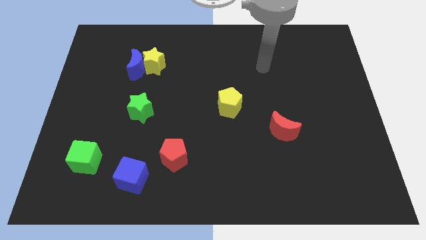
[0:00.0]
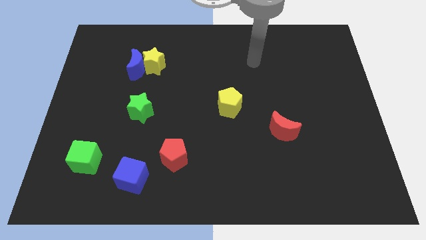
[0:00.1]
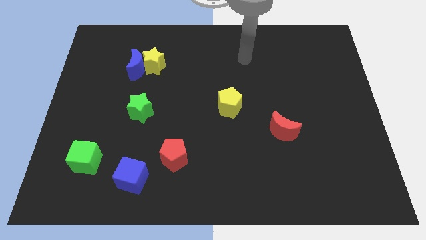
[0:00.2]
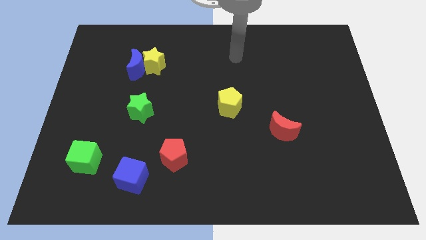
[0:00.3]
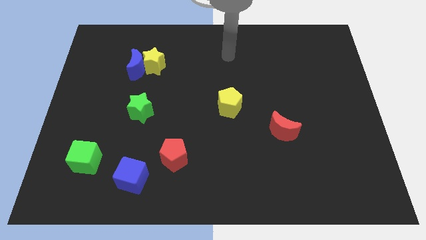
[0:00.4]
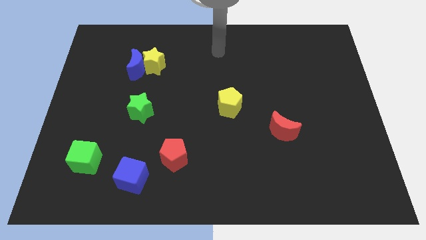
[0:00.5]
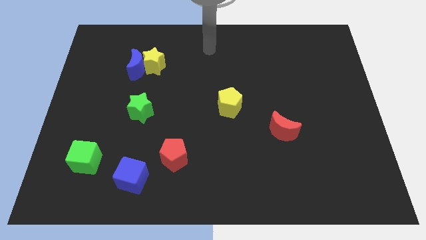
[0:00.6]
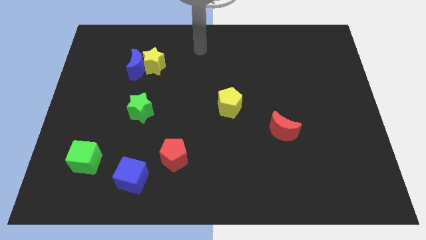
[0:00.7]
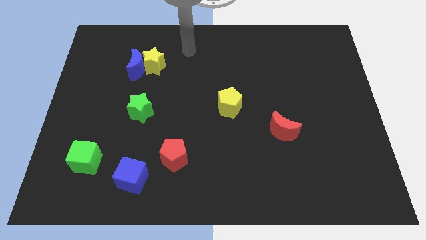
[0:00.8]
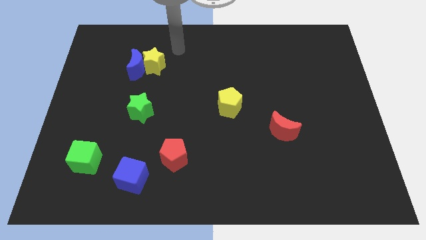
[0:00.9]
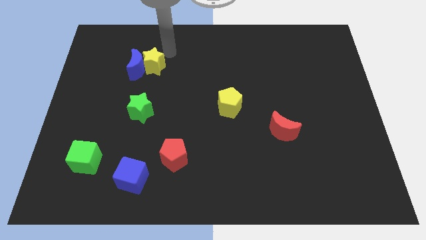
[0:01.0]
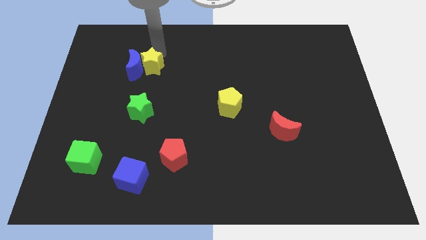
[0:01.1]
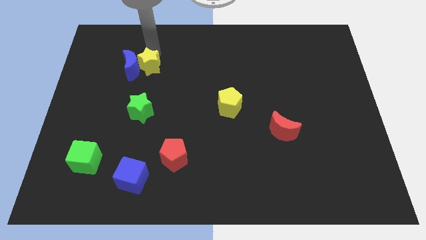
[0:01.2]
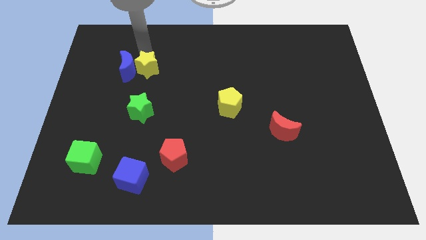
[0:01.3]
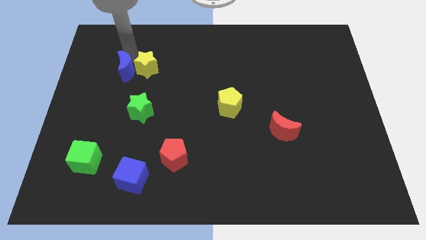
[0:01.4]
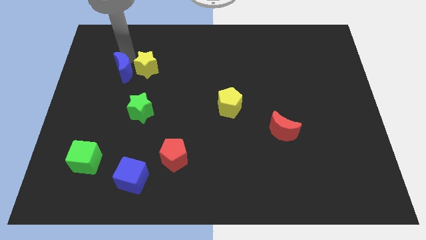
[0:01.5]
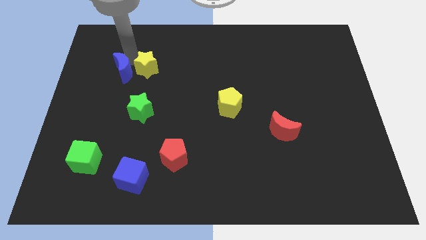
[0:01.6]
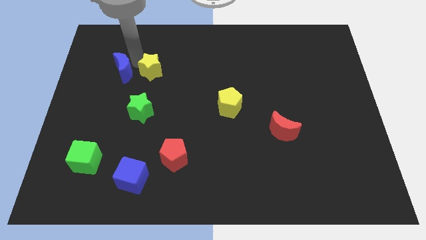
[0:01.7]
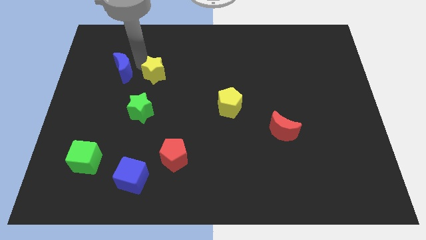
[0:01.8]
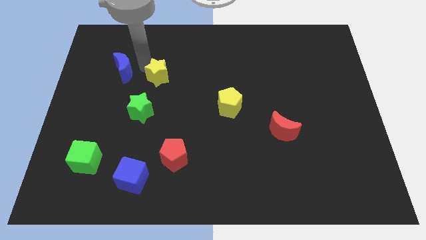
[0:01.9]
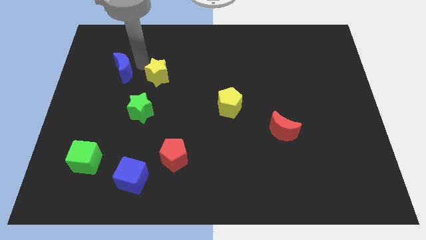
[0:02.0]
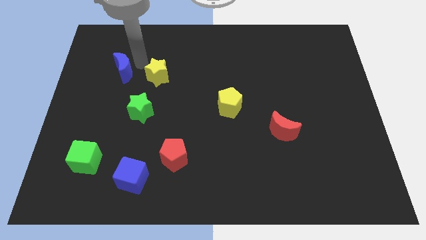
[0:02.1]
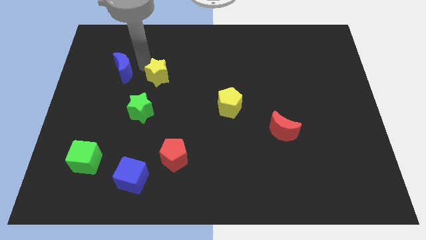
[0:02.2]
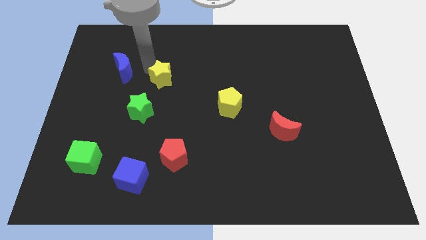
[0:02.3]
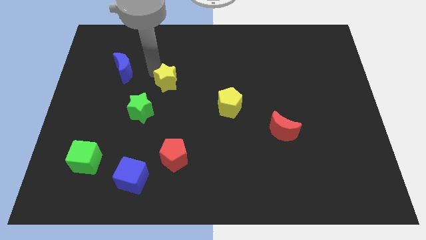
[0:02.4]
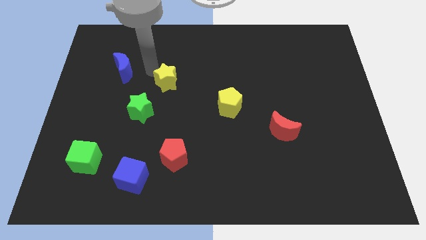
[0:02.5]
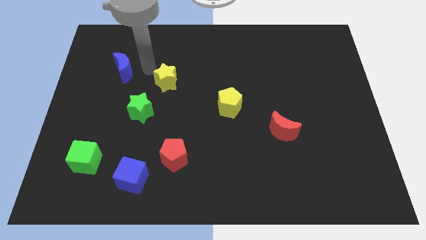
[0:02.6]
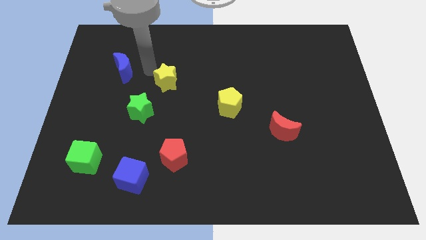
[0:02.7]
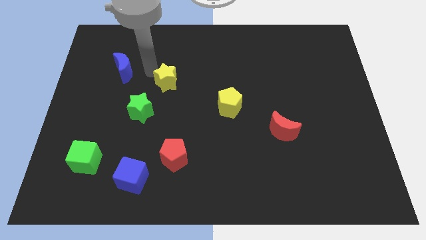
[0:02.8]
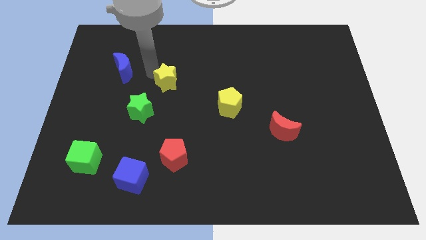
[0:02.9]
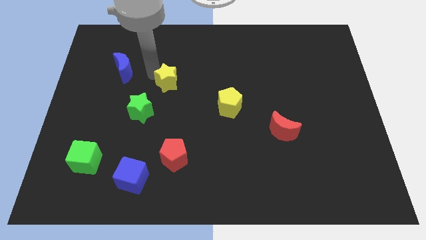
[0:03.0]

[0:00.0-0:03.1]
push the yellow star a bit down and to the right

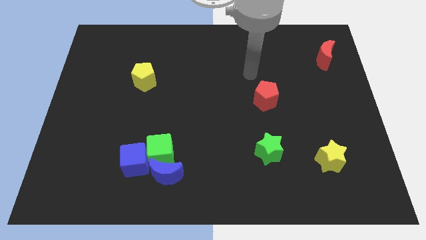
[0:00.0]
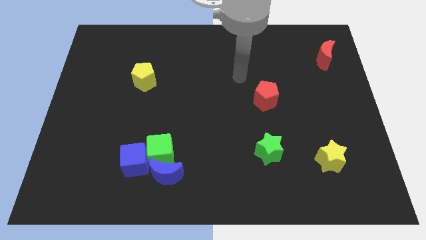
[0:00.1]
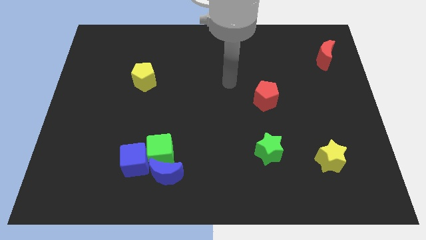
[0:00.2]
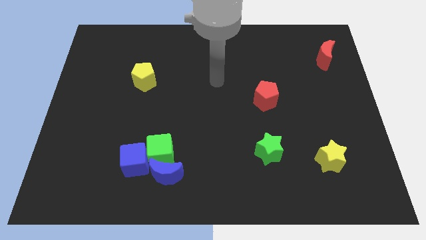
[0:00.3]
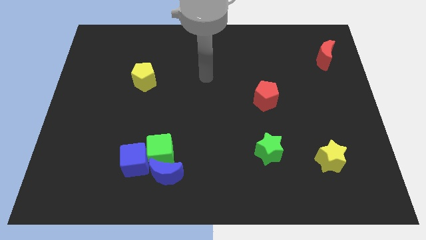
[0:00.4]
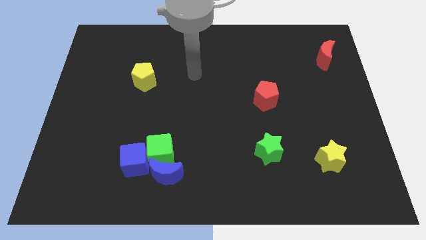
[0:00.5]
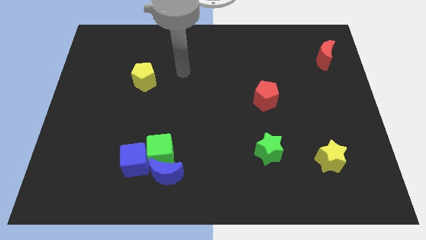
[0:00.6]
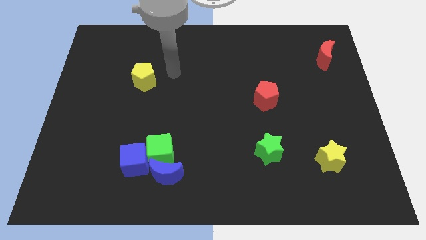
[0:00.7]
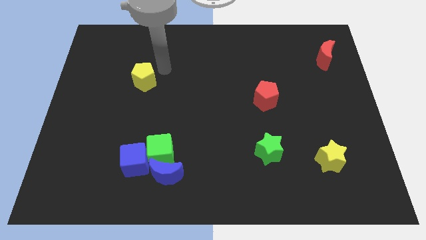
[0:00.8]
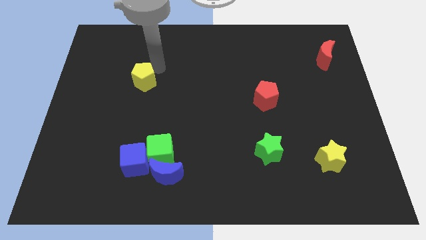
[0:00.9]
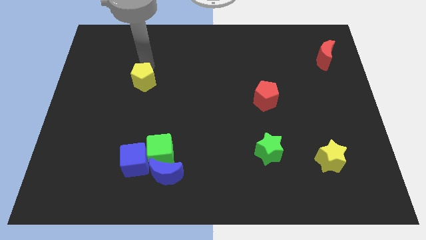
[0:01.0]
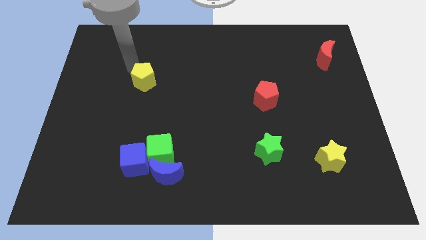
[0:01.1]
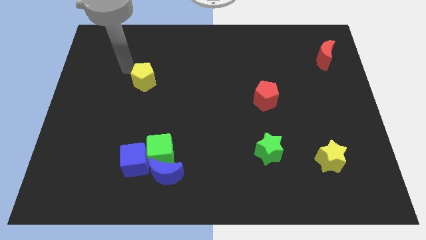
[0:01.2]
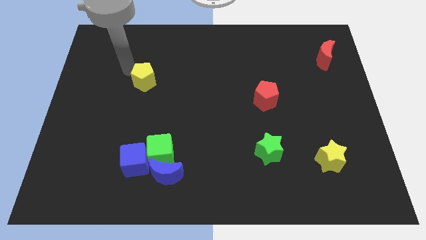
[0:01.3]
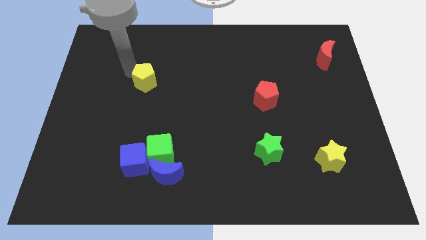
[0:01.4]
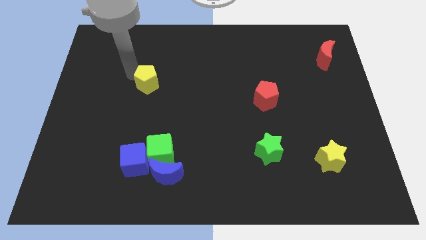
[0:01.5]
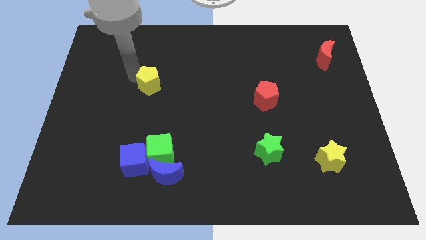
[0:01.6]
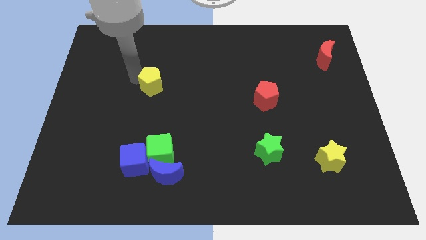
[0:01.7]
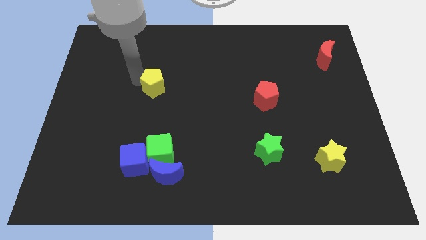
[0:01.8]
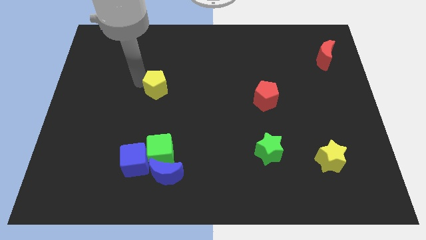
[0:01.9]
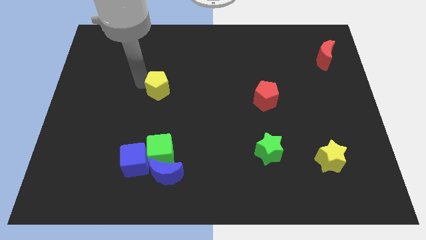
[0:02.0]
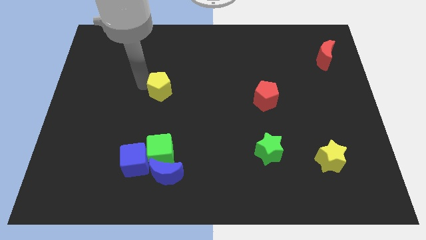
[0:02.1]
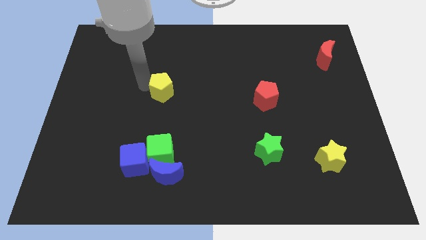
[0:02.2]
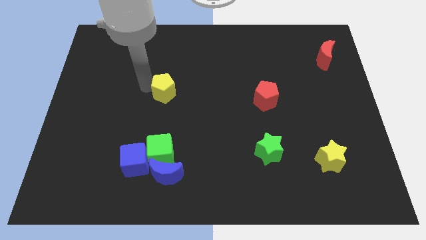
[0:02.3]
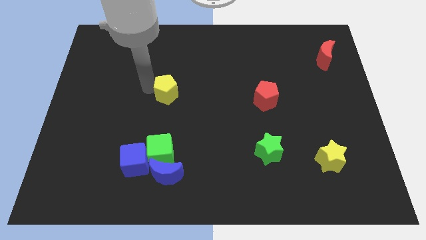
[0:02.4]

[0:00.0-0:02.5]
move the yellow pentagon downwards and to the right diagonally a bit

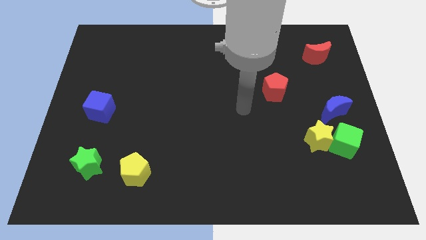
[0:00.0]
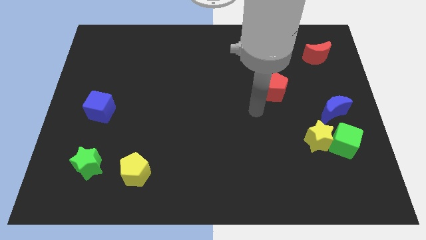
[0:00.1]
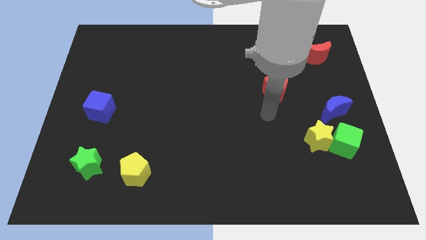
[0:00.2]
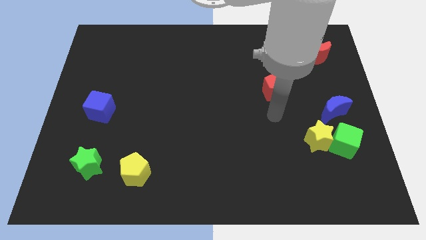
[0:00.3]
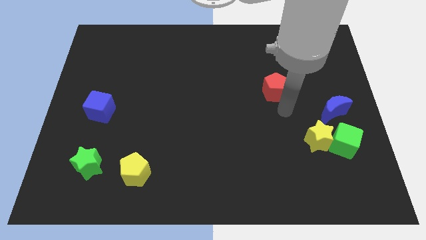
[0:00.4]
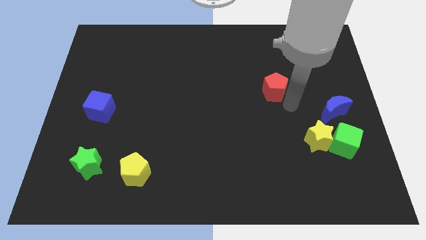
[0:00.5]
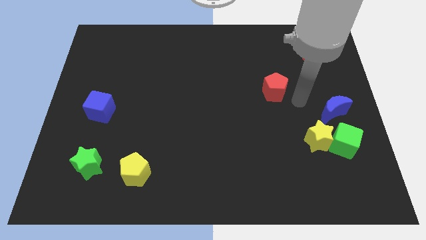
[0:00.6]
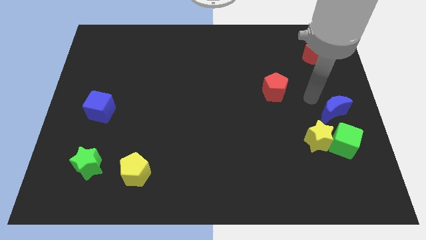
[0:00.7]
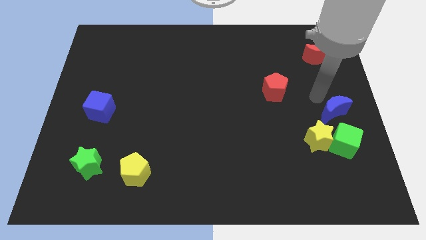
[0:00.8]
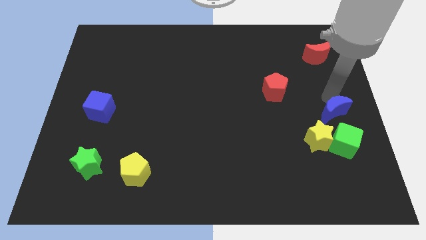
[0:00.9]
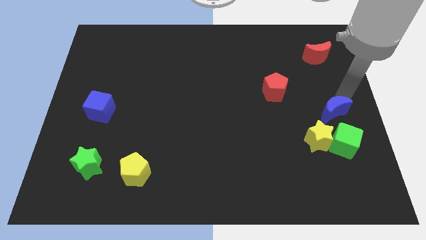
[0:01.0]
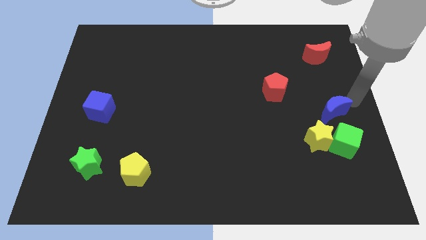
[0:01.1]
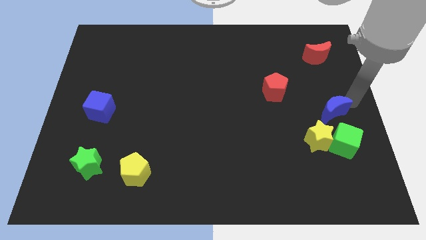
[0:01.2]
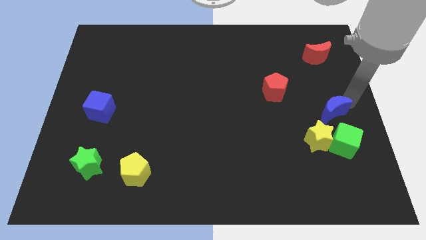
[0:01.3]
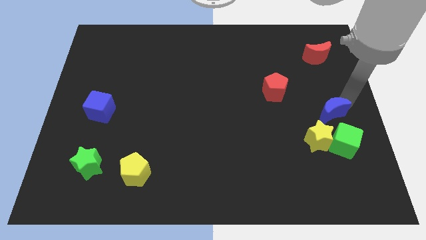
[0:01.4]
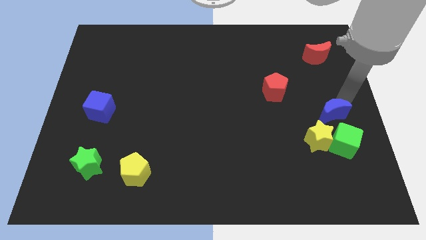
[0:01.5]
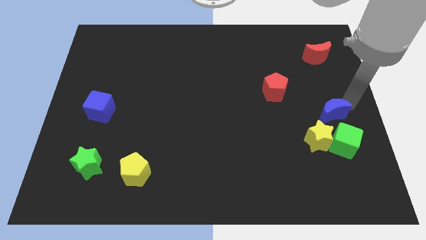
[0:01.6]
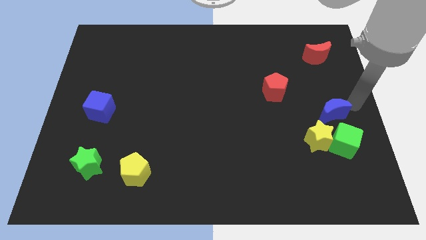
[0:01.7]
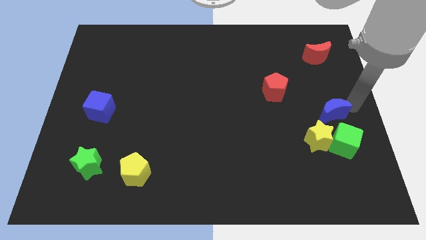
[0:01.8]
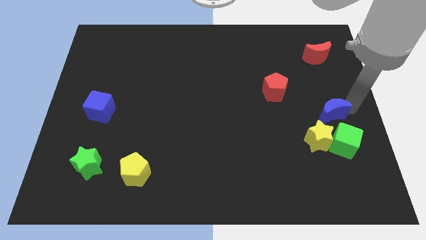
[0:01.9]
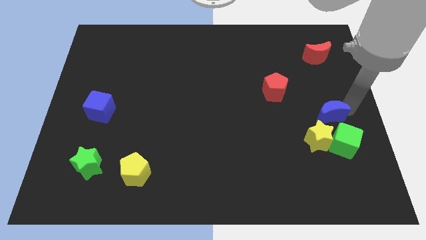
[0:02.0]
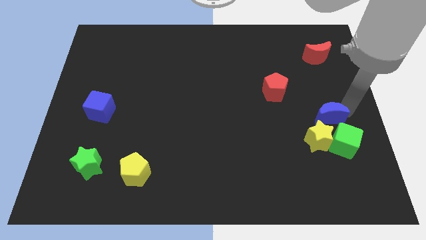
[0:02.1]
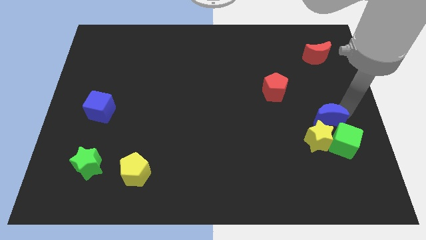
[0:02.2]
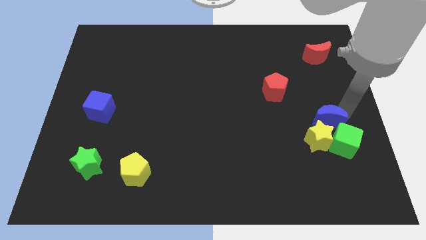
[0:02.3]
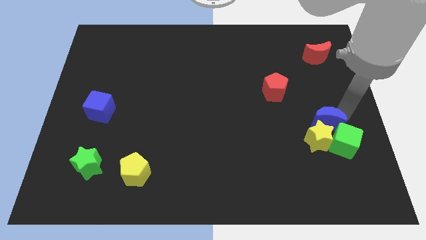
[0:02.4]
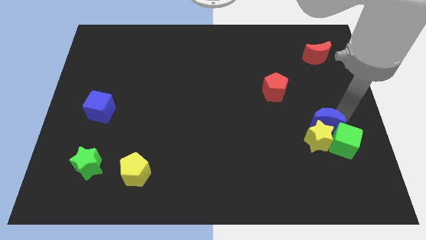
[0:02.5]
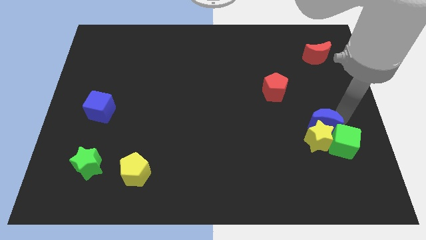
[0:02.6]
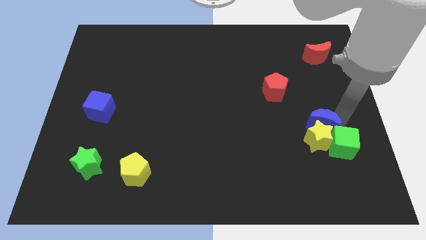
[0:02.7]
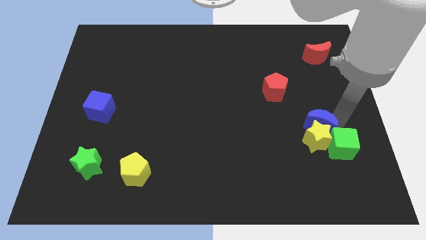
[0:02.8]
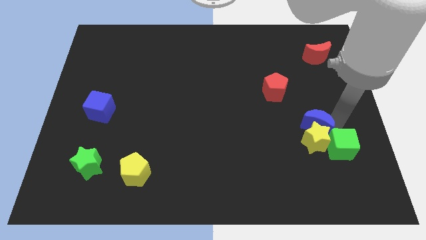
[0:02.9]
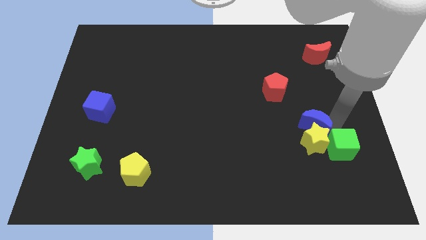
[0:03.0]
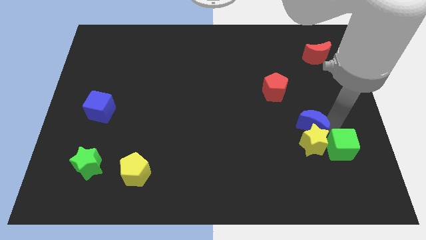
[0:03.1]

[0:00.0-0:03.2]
move the blue moon downwards and then to the left somewhat
